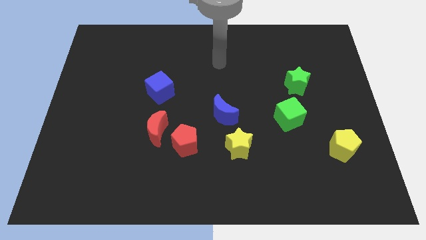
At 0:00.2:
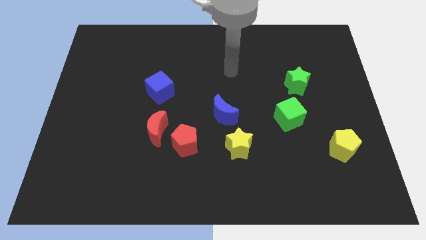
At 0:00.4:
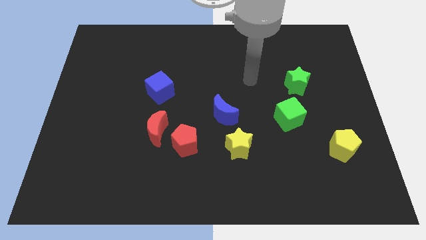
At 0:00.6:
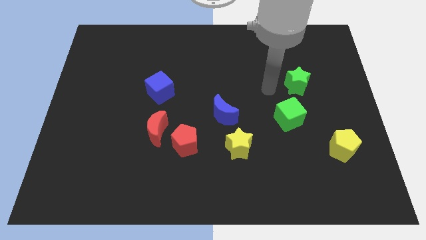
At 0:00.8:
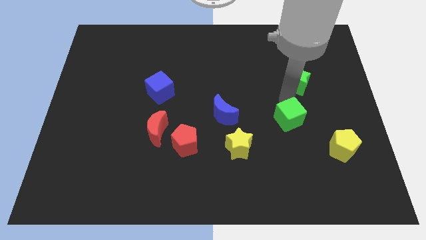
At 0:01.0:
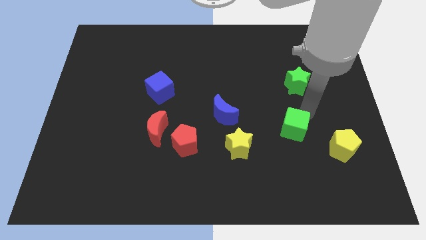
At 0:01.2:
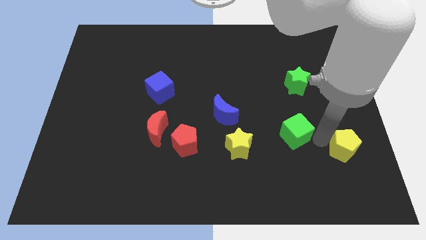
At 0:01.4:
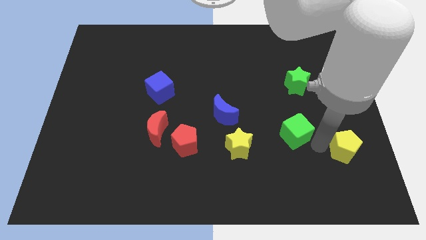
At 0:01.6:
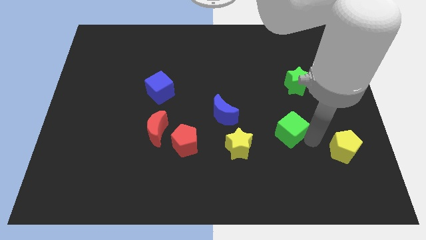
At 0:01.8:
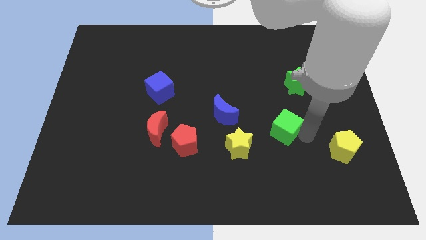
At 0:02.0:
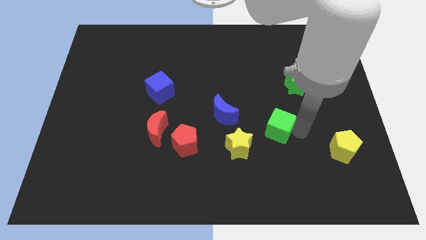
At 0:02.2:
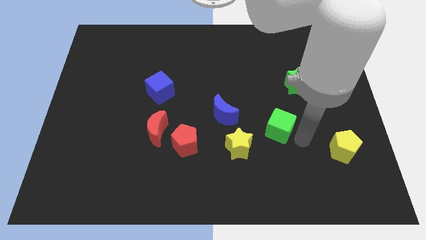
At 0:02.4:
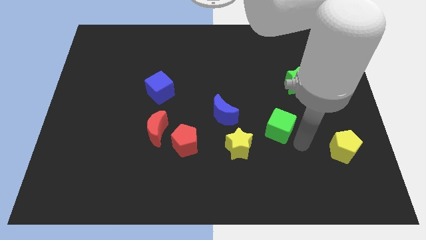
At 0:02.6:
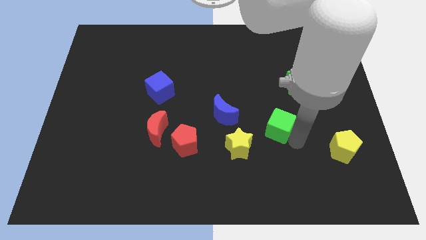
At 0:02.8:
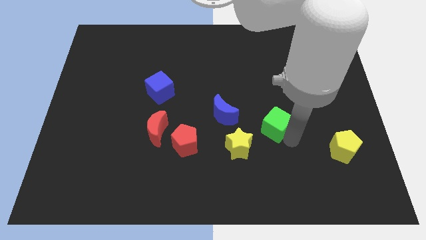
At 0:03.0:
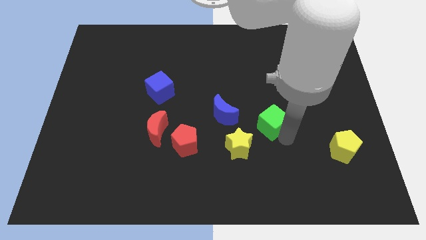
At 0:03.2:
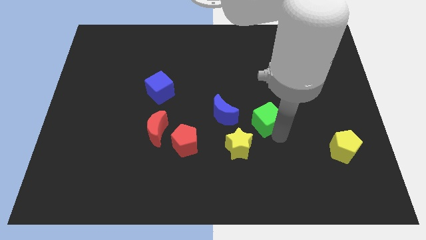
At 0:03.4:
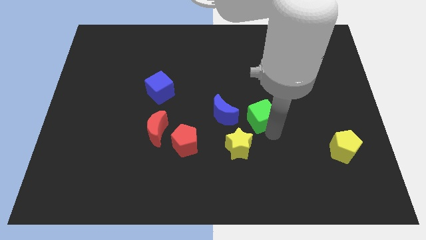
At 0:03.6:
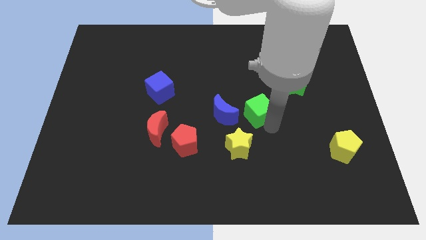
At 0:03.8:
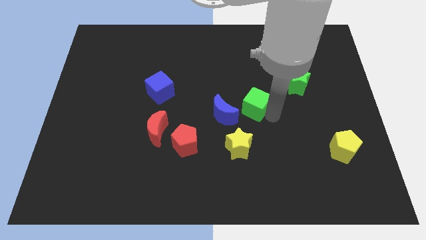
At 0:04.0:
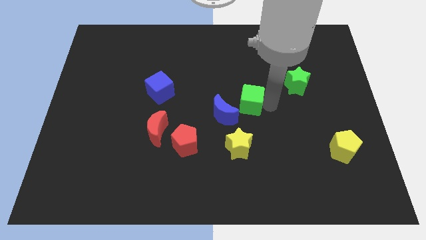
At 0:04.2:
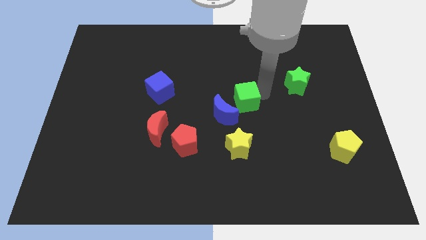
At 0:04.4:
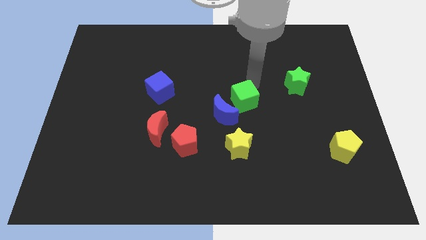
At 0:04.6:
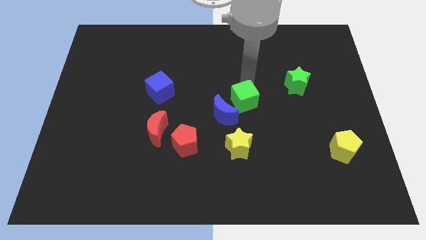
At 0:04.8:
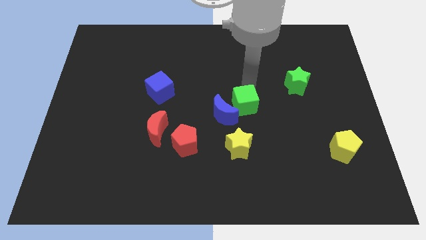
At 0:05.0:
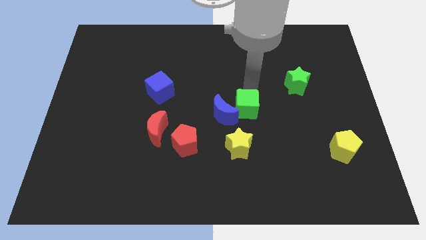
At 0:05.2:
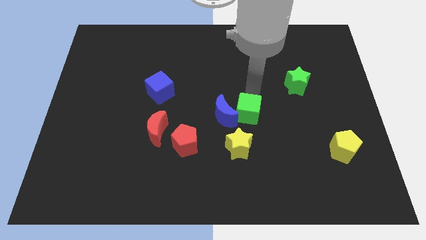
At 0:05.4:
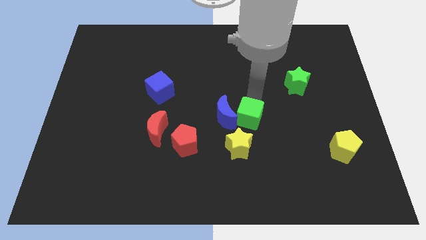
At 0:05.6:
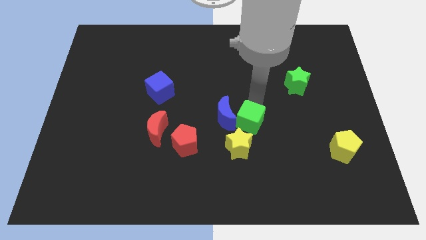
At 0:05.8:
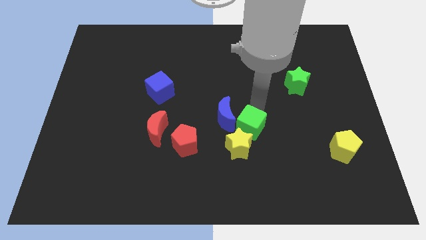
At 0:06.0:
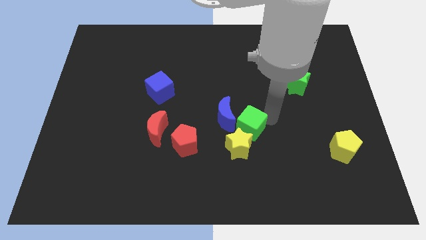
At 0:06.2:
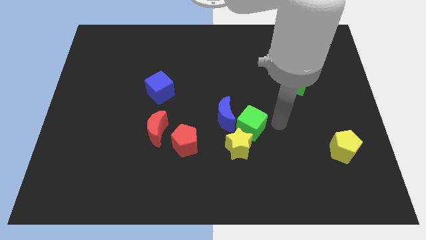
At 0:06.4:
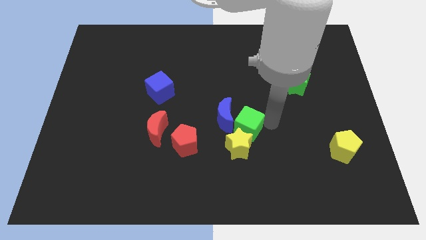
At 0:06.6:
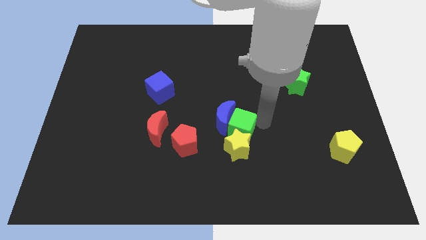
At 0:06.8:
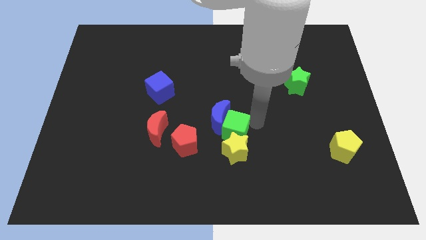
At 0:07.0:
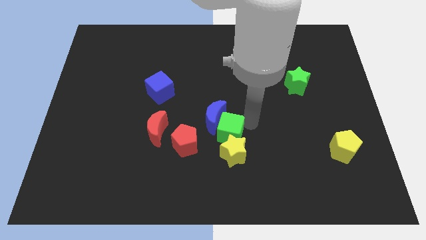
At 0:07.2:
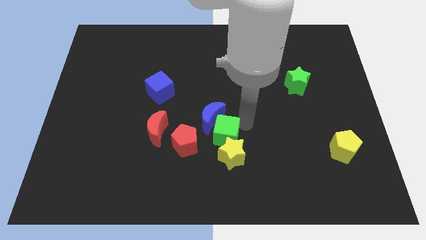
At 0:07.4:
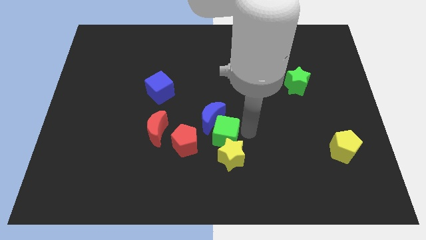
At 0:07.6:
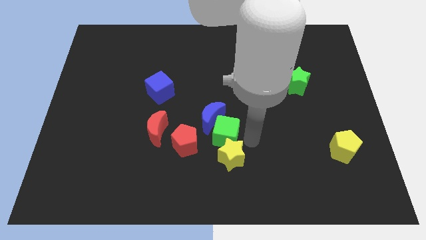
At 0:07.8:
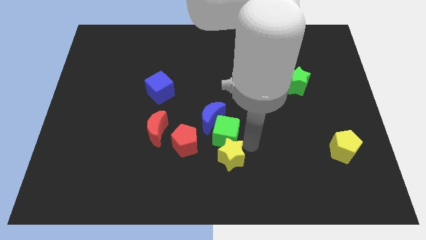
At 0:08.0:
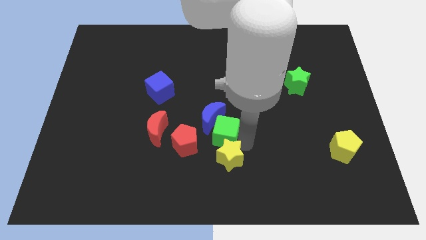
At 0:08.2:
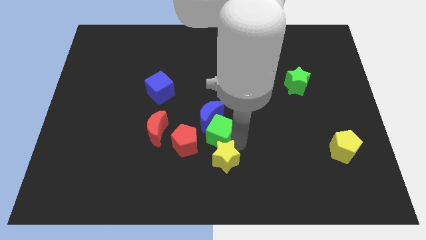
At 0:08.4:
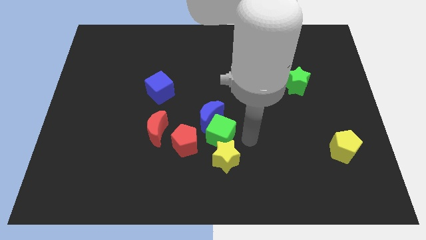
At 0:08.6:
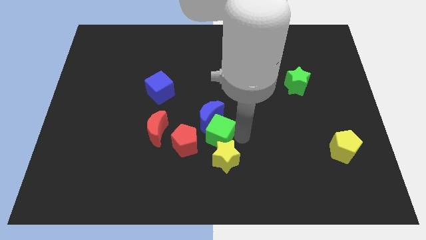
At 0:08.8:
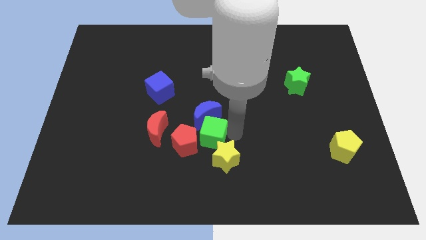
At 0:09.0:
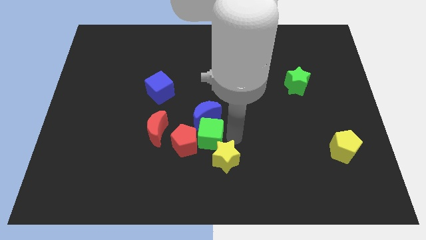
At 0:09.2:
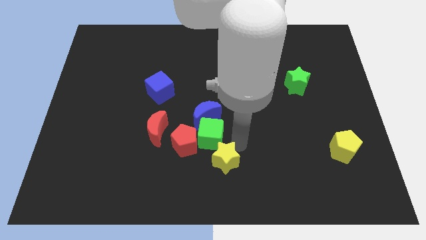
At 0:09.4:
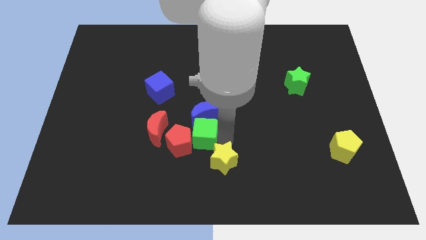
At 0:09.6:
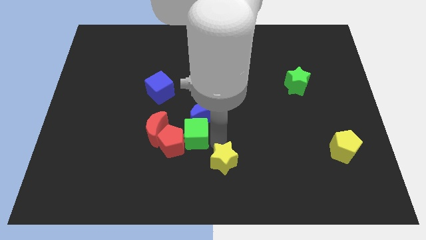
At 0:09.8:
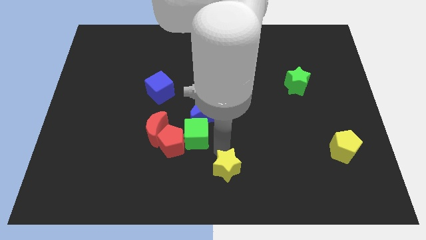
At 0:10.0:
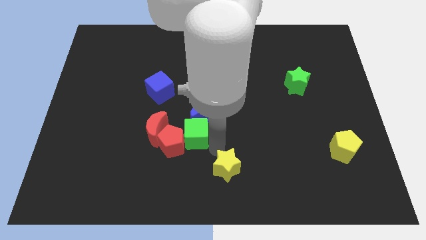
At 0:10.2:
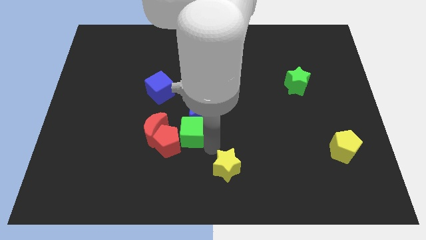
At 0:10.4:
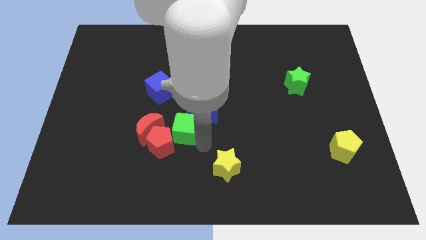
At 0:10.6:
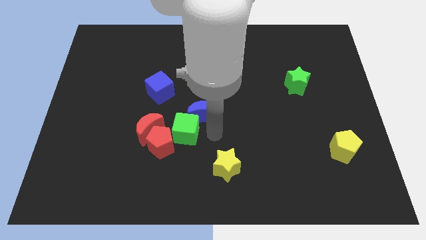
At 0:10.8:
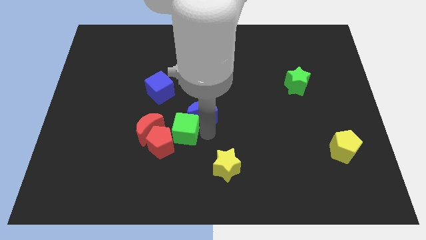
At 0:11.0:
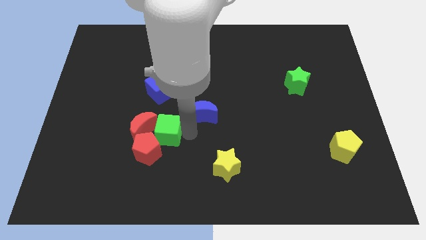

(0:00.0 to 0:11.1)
put the green cube next to the red moon

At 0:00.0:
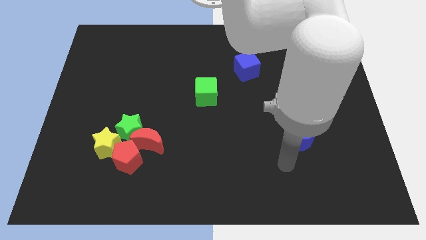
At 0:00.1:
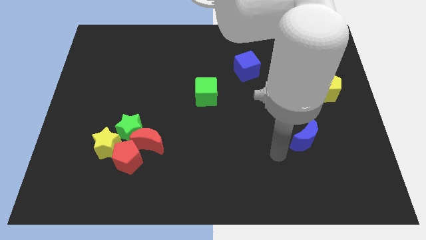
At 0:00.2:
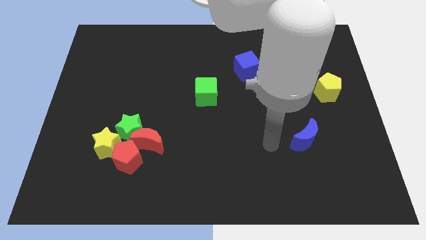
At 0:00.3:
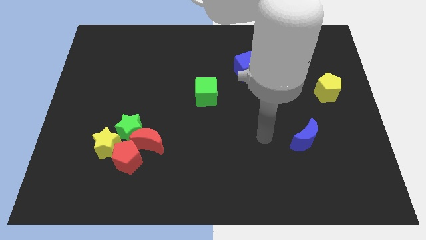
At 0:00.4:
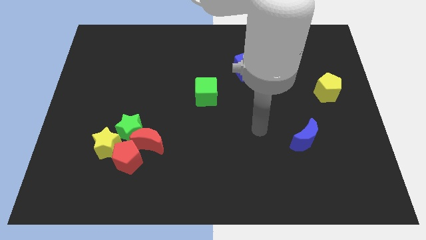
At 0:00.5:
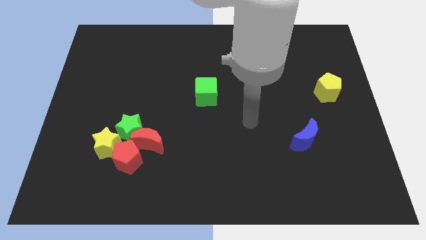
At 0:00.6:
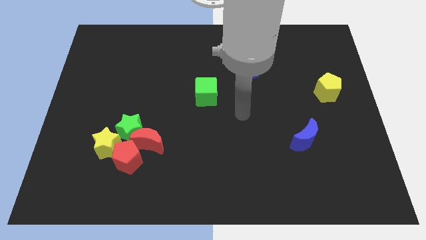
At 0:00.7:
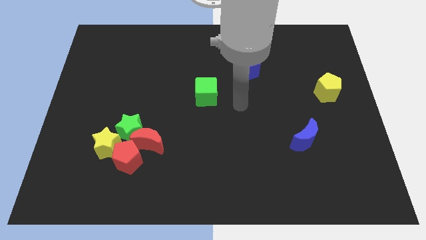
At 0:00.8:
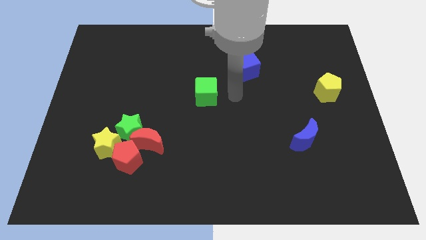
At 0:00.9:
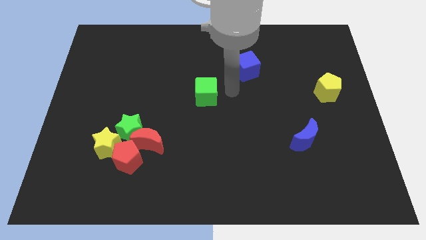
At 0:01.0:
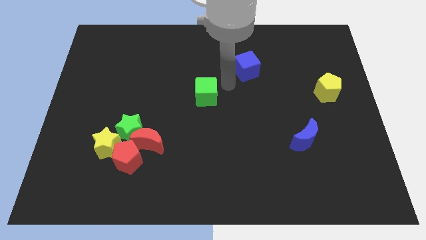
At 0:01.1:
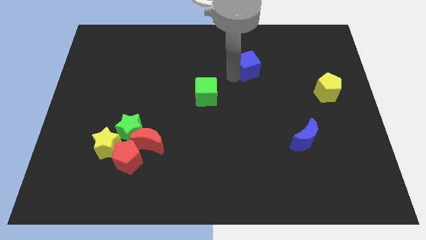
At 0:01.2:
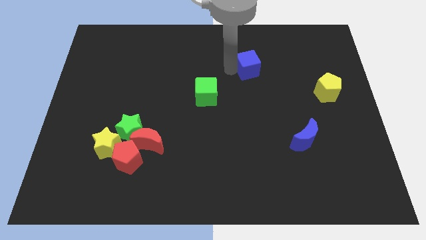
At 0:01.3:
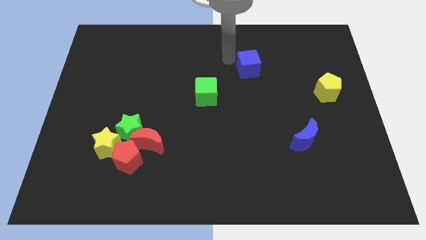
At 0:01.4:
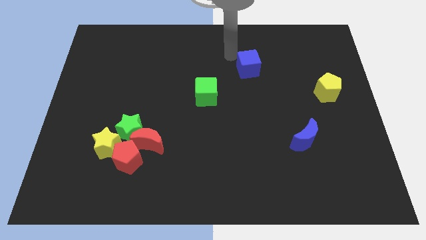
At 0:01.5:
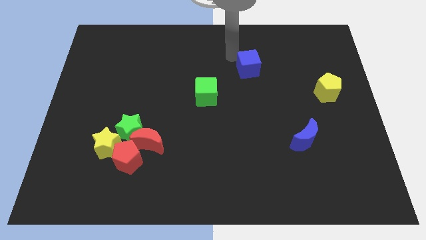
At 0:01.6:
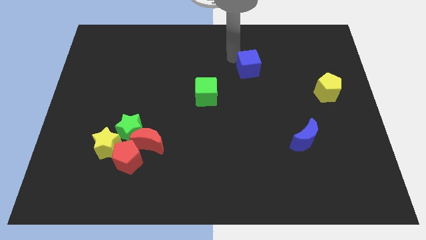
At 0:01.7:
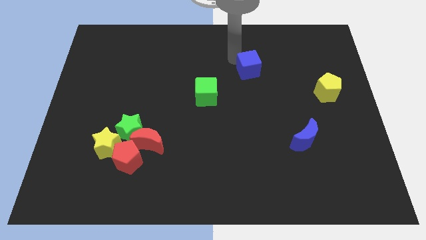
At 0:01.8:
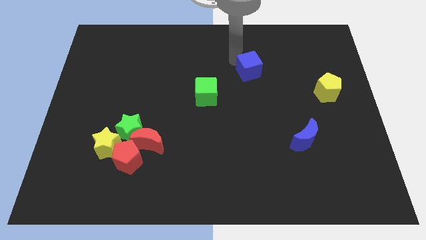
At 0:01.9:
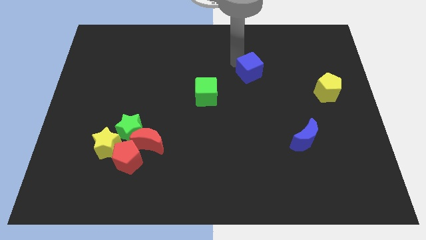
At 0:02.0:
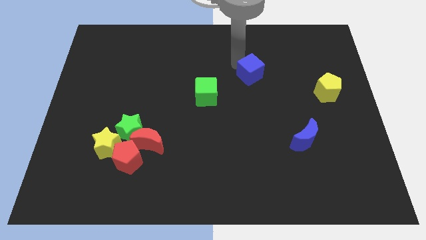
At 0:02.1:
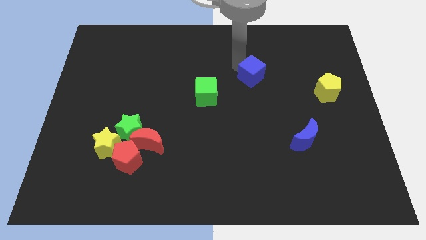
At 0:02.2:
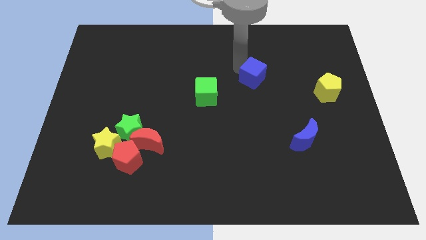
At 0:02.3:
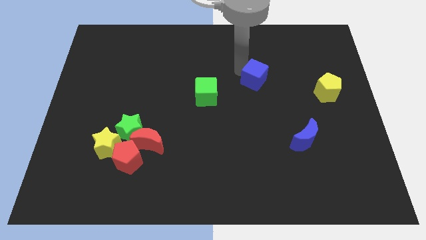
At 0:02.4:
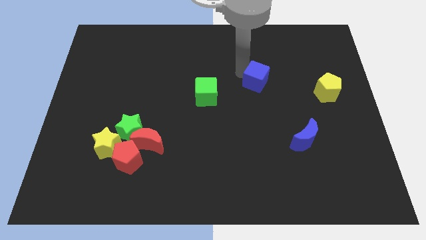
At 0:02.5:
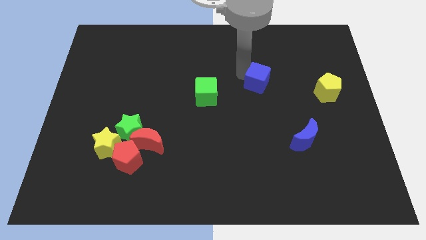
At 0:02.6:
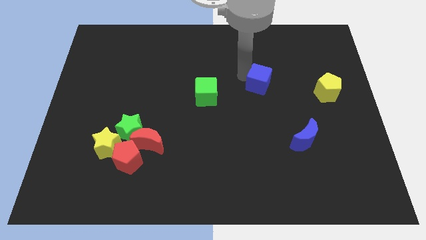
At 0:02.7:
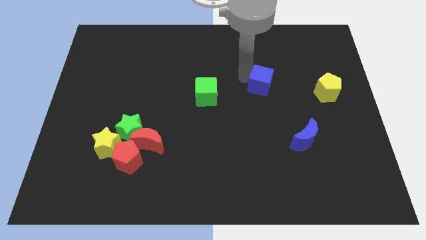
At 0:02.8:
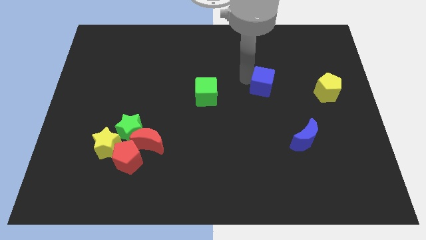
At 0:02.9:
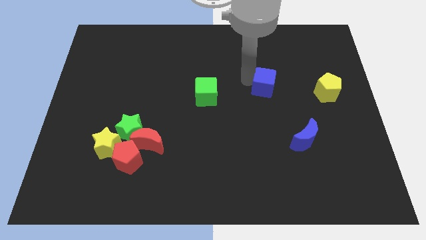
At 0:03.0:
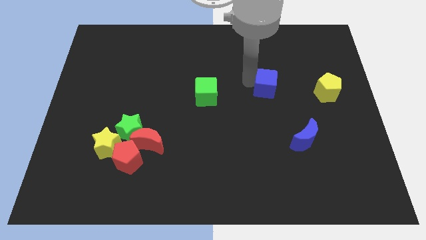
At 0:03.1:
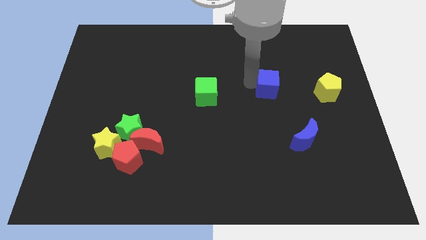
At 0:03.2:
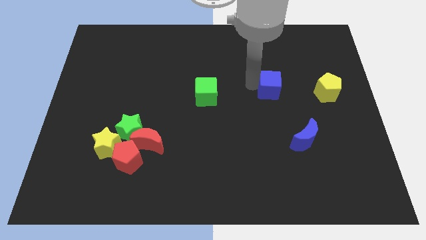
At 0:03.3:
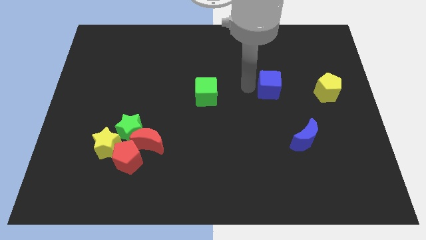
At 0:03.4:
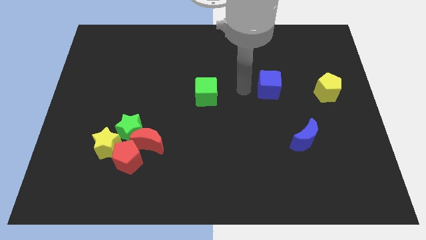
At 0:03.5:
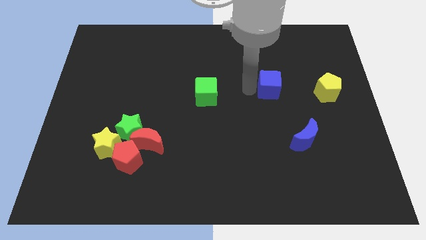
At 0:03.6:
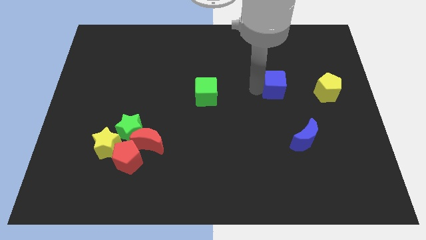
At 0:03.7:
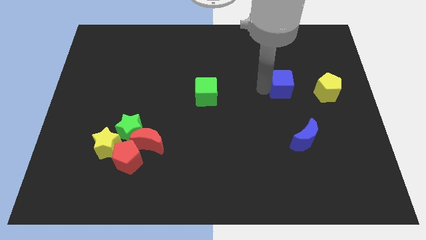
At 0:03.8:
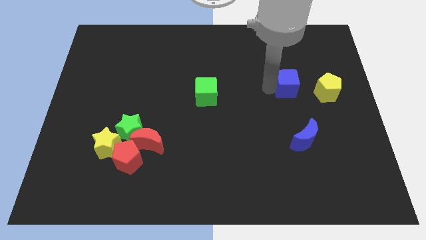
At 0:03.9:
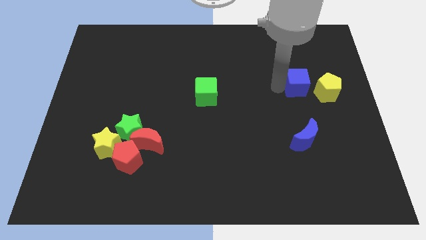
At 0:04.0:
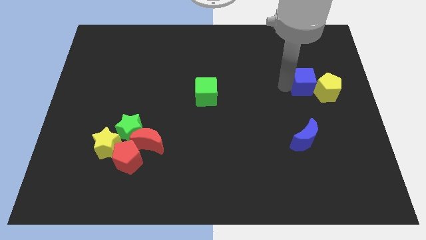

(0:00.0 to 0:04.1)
move the blue cube towards the yellow pentagon
